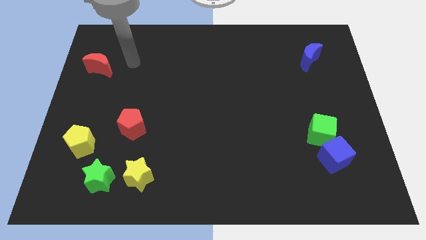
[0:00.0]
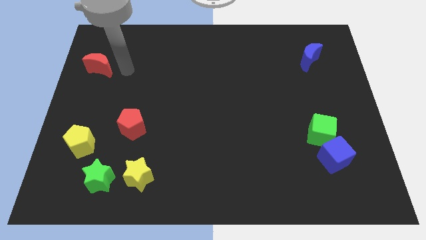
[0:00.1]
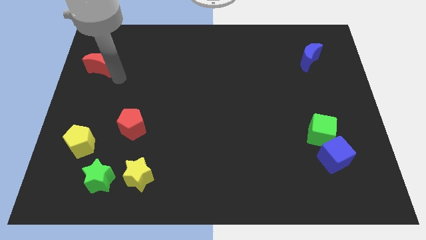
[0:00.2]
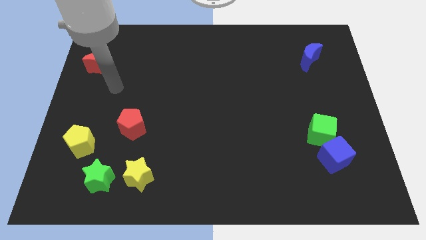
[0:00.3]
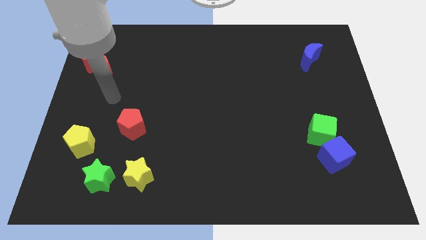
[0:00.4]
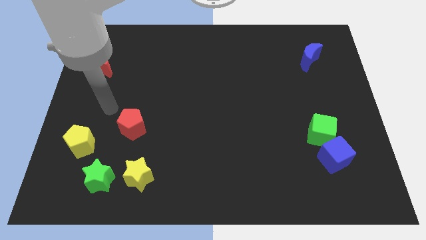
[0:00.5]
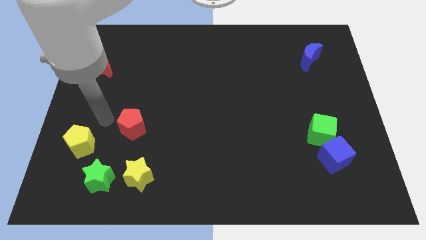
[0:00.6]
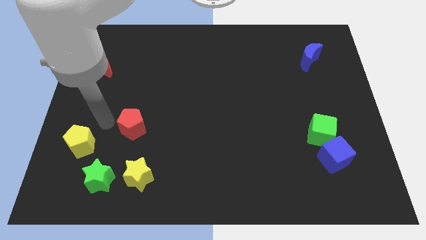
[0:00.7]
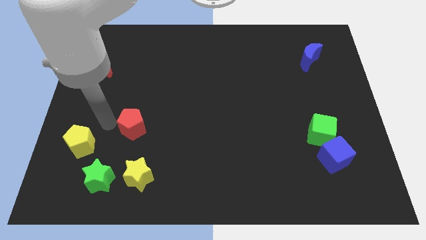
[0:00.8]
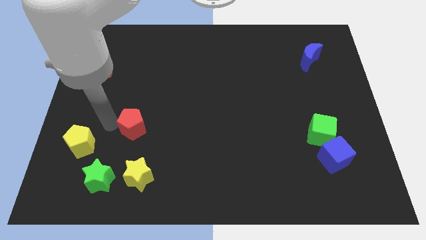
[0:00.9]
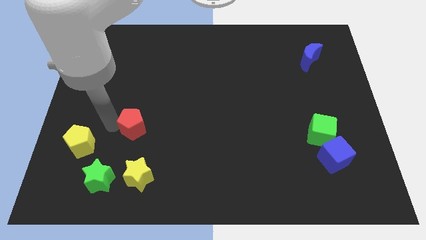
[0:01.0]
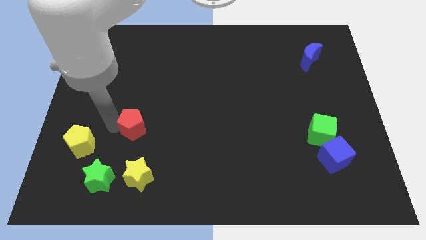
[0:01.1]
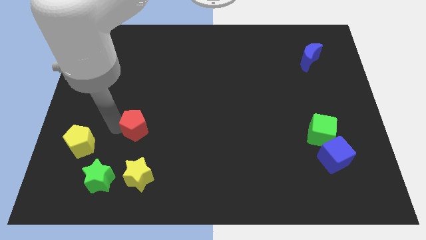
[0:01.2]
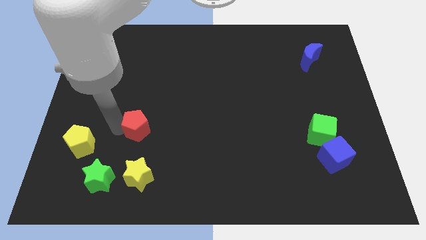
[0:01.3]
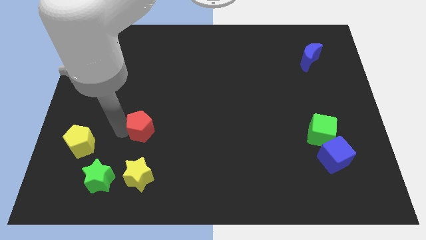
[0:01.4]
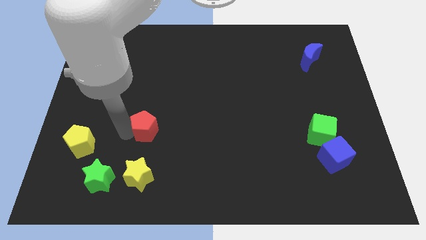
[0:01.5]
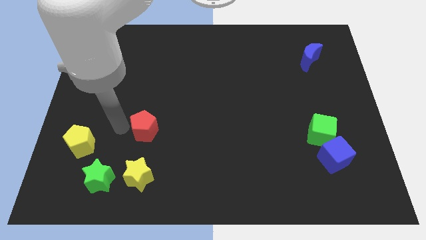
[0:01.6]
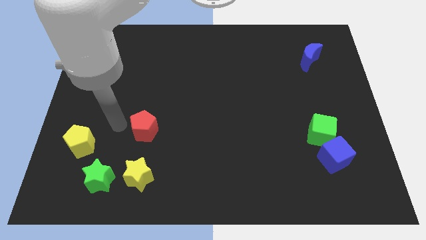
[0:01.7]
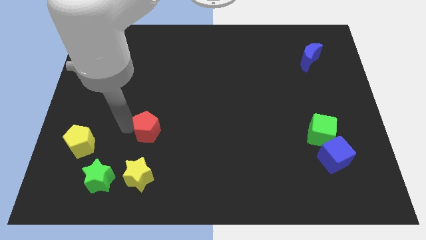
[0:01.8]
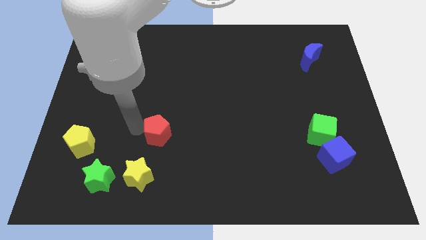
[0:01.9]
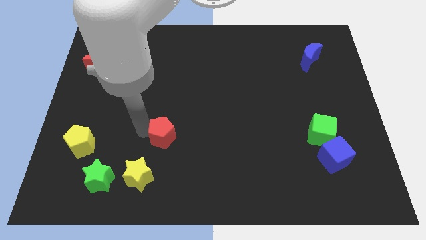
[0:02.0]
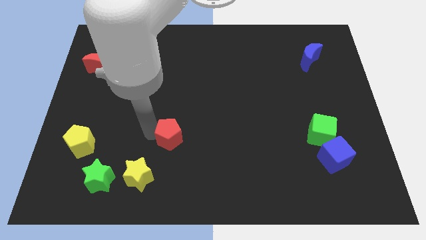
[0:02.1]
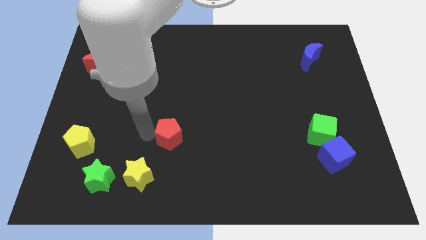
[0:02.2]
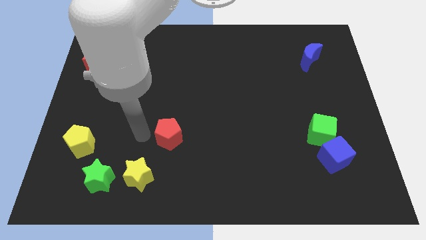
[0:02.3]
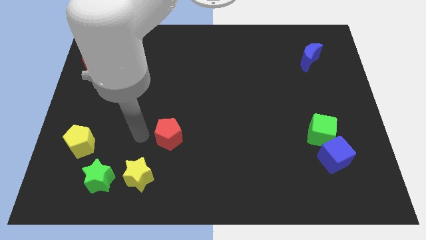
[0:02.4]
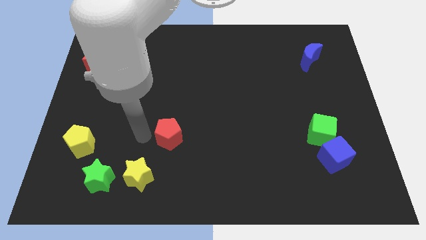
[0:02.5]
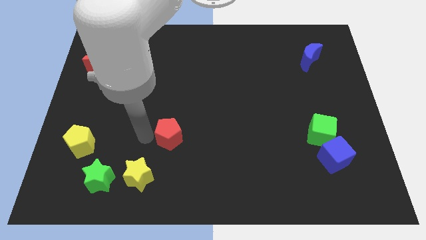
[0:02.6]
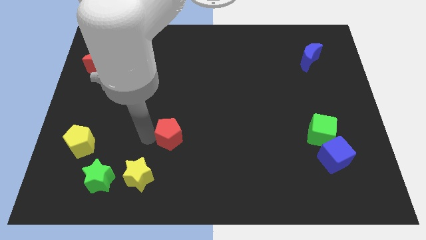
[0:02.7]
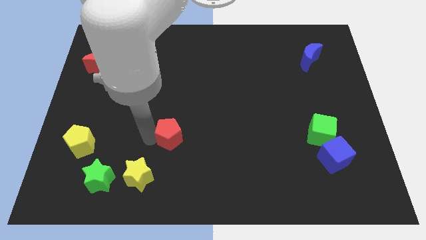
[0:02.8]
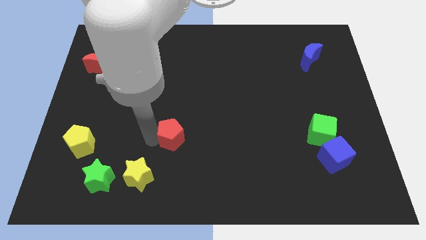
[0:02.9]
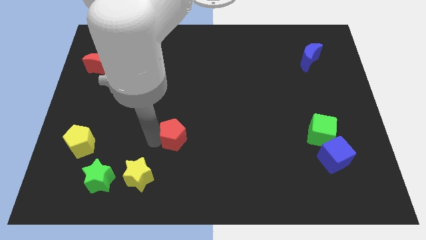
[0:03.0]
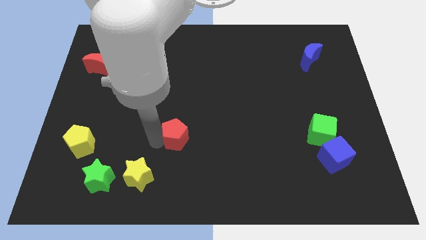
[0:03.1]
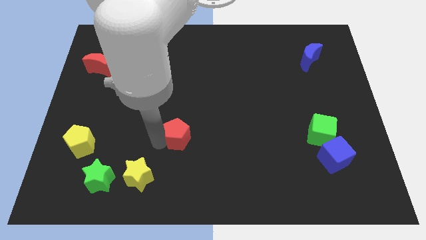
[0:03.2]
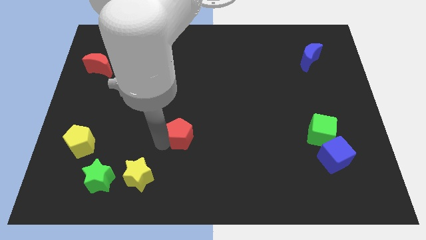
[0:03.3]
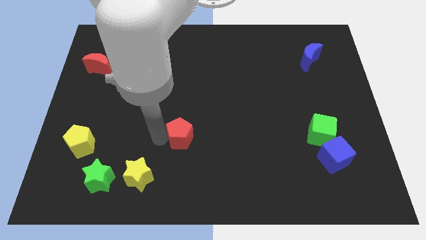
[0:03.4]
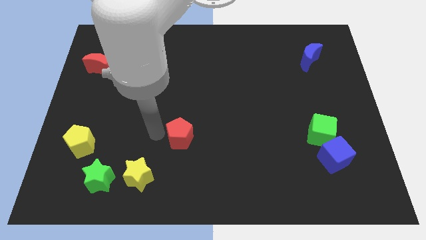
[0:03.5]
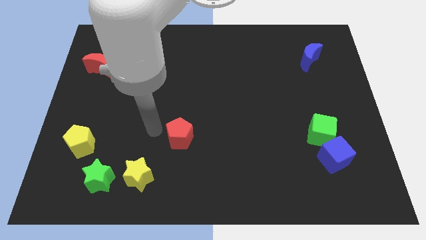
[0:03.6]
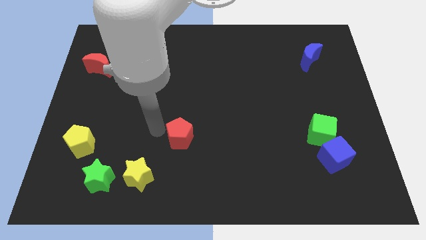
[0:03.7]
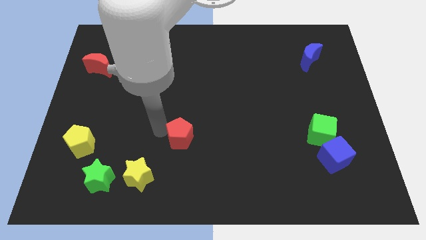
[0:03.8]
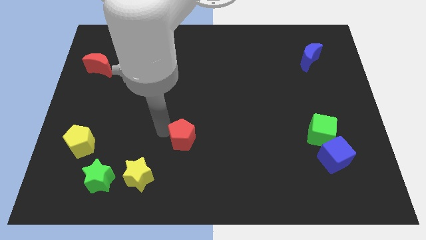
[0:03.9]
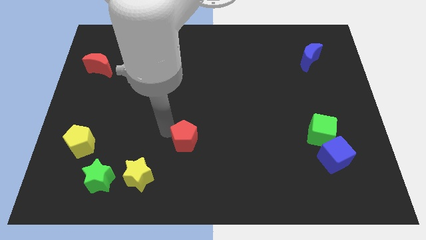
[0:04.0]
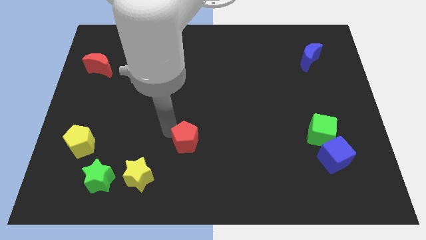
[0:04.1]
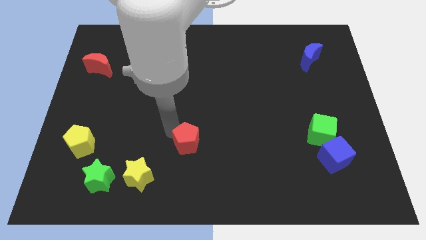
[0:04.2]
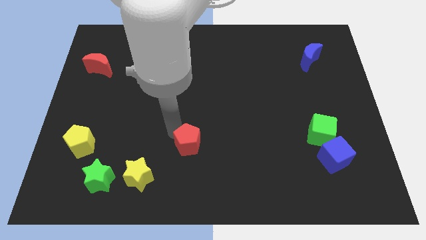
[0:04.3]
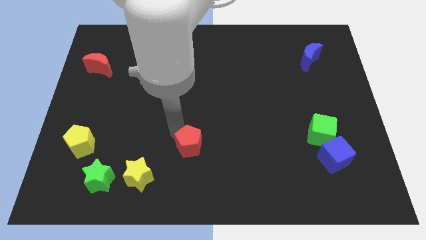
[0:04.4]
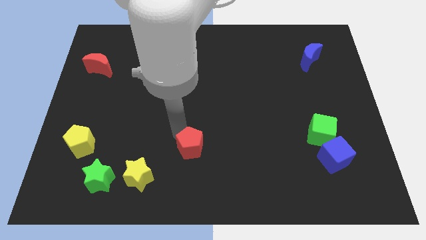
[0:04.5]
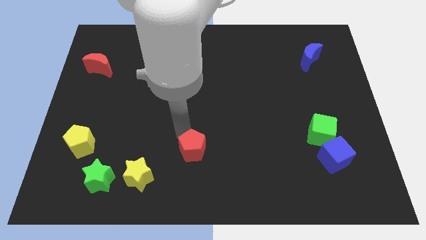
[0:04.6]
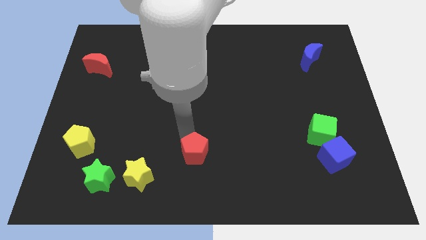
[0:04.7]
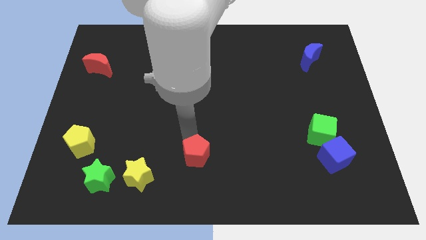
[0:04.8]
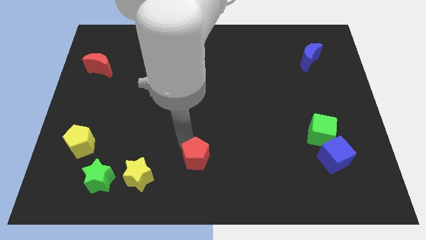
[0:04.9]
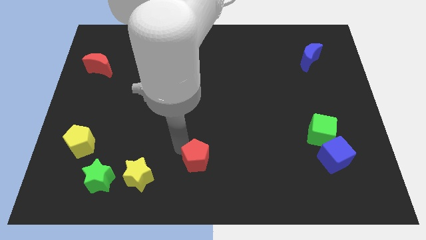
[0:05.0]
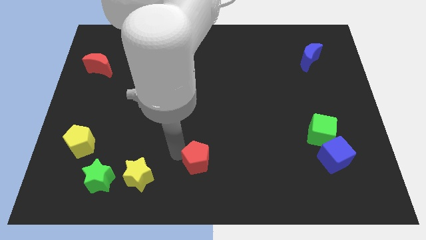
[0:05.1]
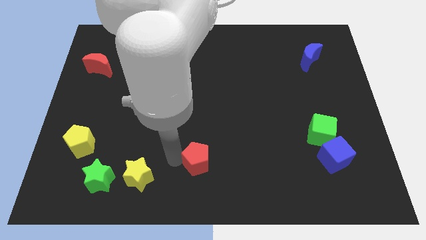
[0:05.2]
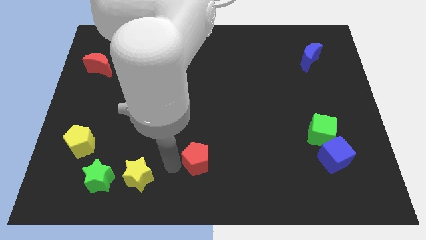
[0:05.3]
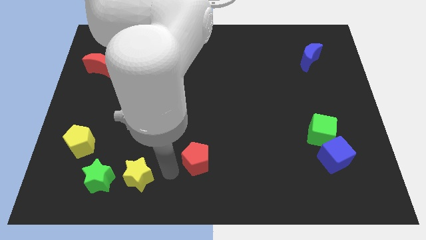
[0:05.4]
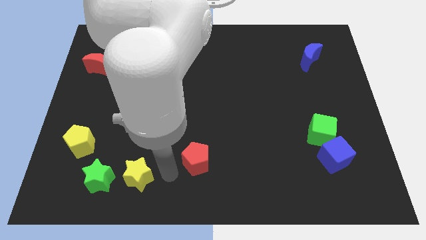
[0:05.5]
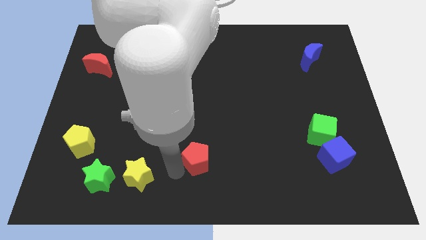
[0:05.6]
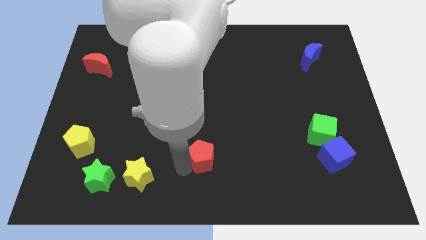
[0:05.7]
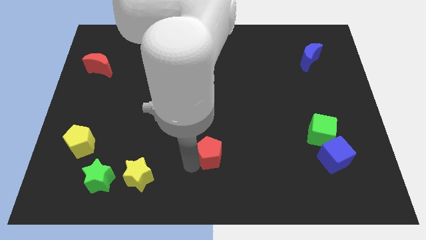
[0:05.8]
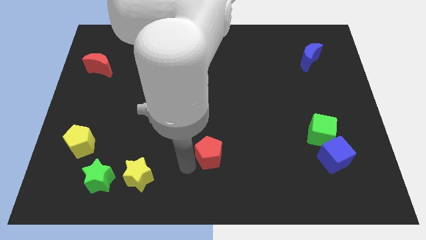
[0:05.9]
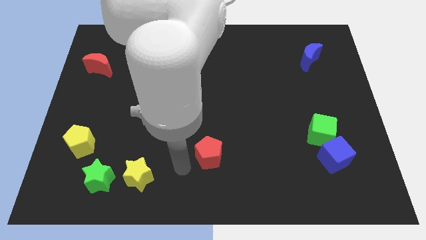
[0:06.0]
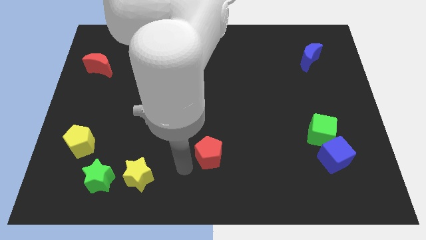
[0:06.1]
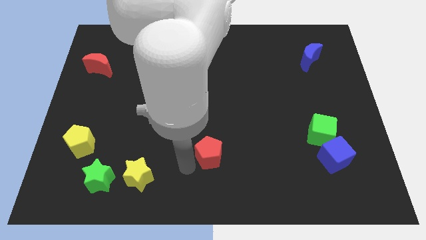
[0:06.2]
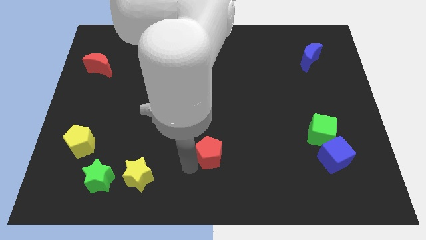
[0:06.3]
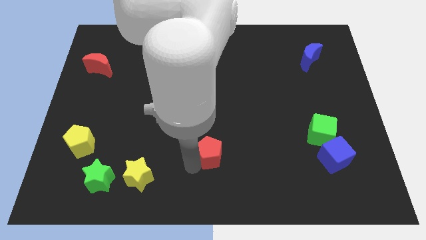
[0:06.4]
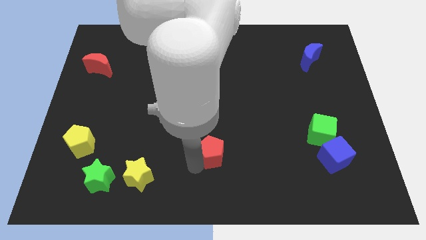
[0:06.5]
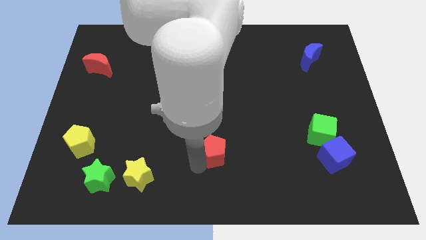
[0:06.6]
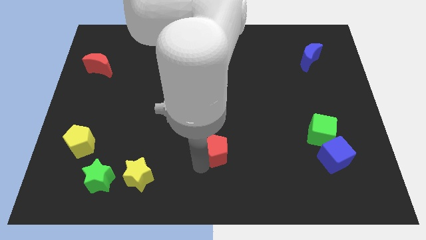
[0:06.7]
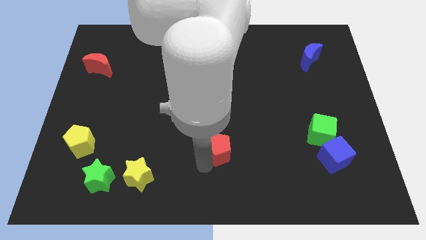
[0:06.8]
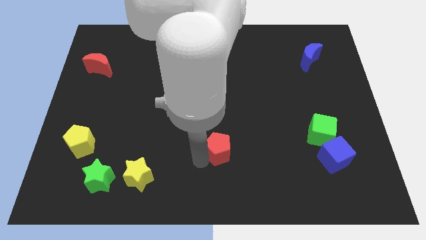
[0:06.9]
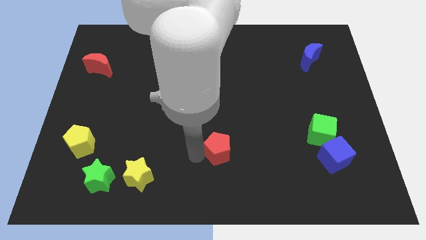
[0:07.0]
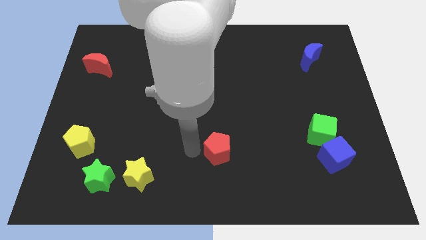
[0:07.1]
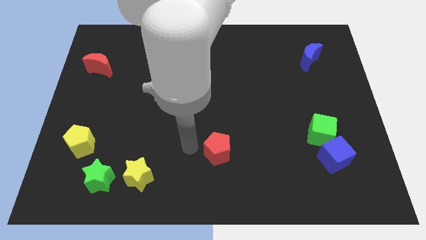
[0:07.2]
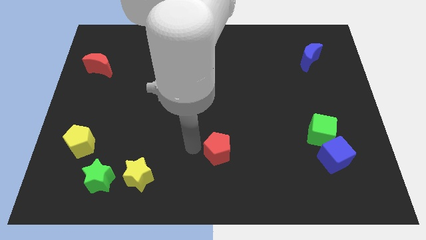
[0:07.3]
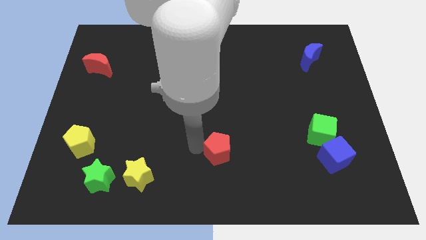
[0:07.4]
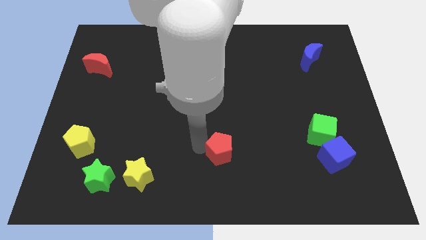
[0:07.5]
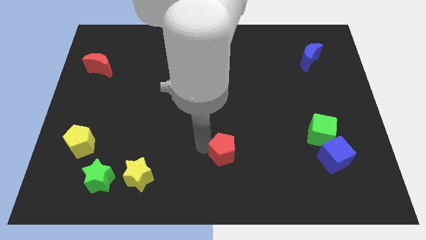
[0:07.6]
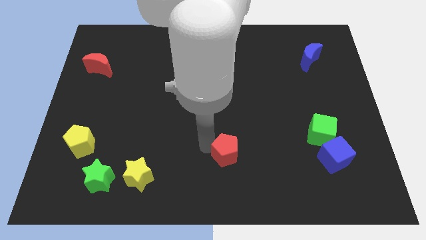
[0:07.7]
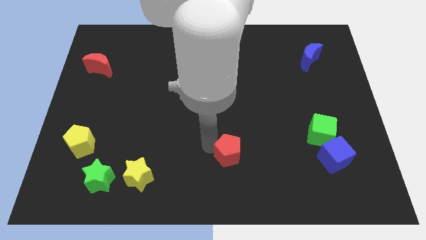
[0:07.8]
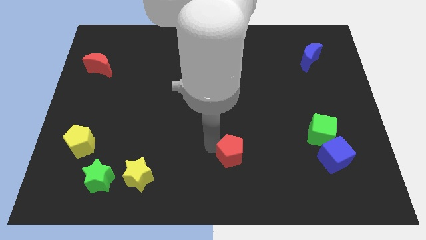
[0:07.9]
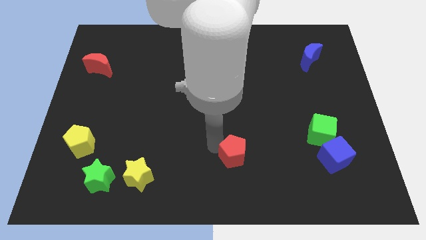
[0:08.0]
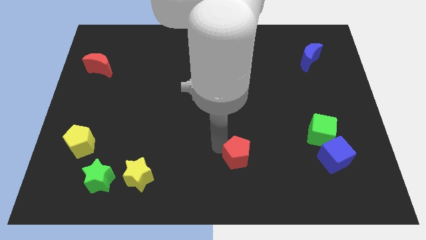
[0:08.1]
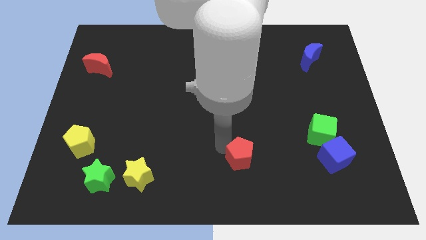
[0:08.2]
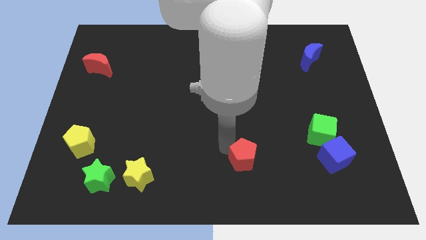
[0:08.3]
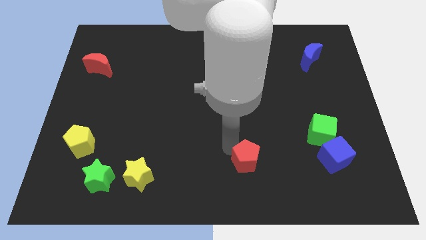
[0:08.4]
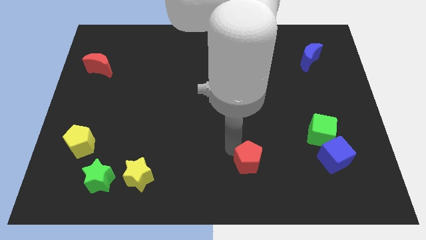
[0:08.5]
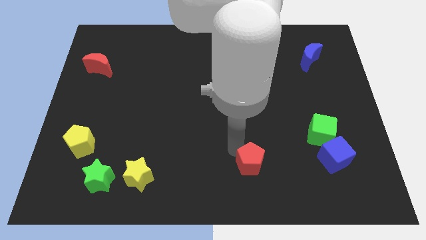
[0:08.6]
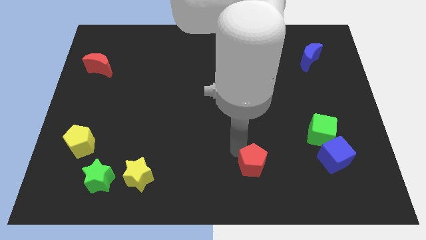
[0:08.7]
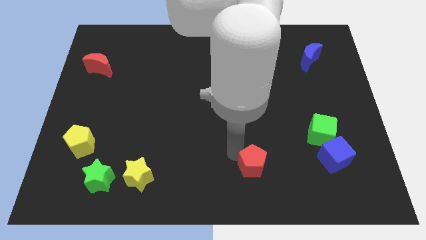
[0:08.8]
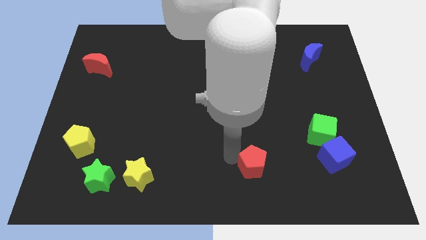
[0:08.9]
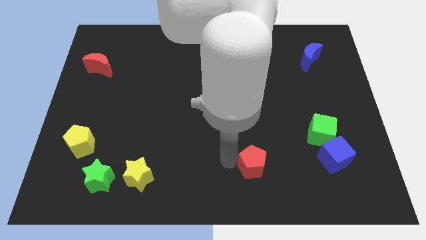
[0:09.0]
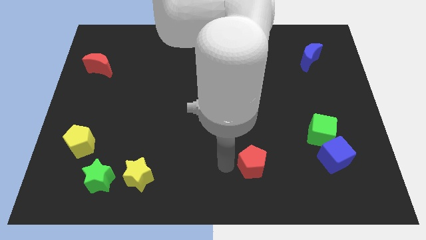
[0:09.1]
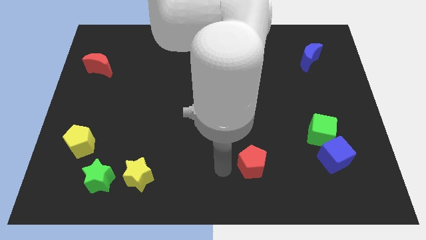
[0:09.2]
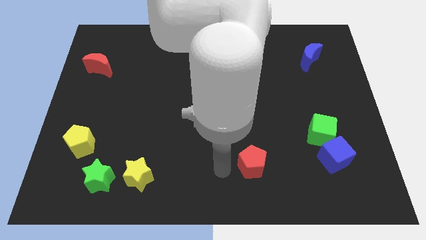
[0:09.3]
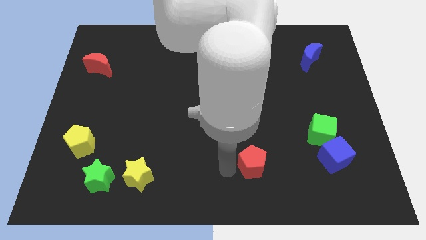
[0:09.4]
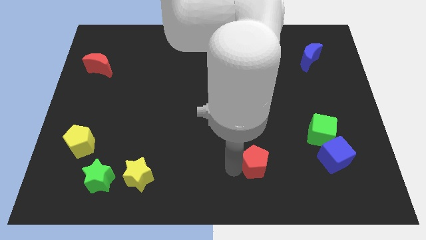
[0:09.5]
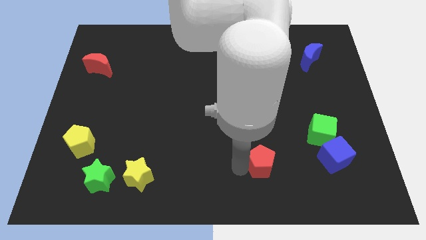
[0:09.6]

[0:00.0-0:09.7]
move the red pentagon left of the blue cube
